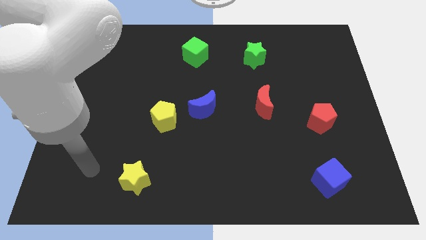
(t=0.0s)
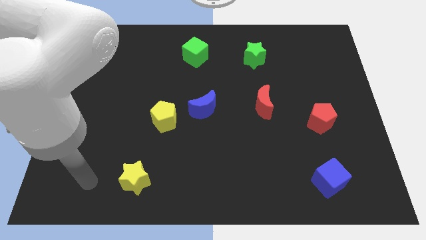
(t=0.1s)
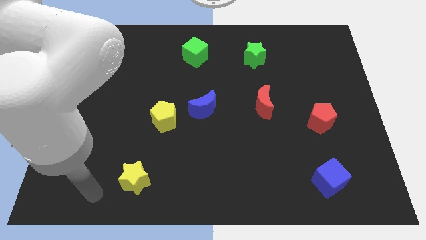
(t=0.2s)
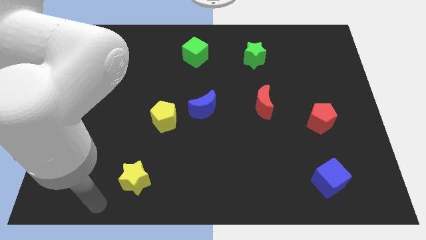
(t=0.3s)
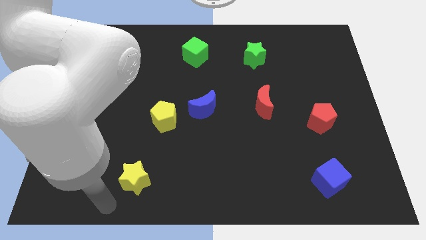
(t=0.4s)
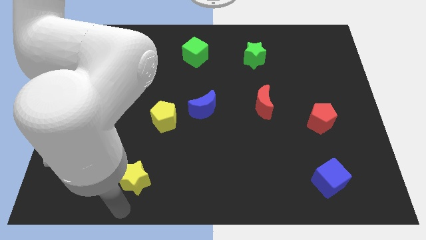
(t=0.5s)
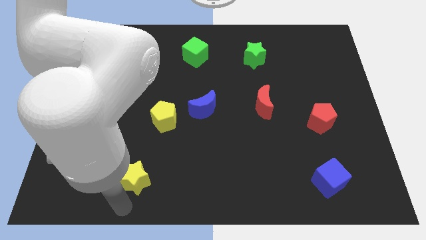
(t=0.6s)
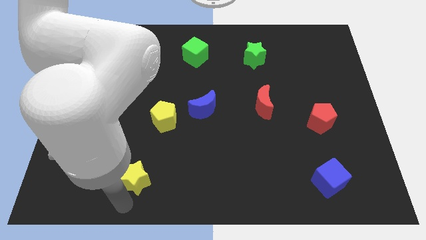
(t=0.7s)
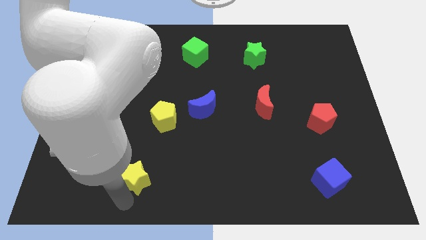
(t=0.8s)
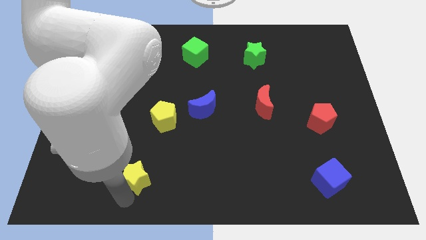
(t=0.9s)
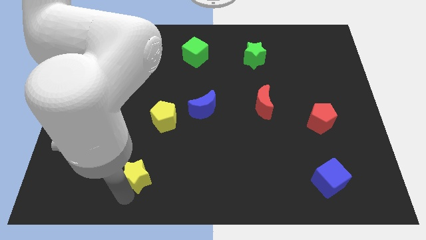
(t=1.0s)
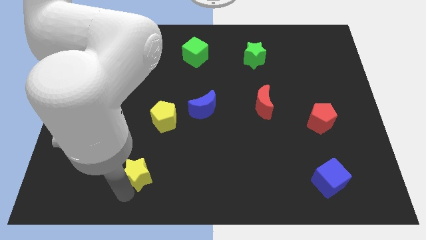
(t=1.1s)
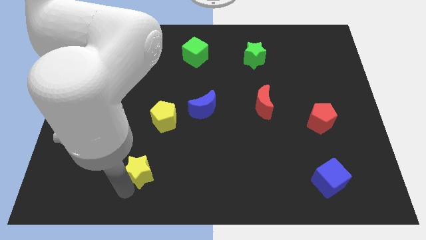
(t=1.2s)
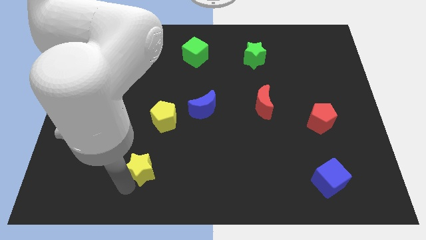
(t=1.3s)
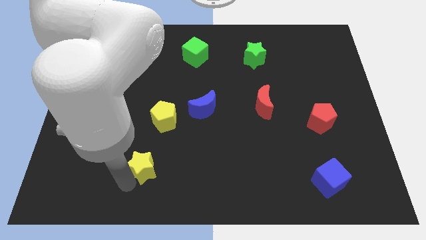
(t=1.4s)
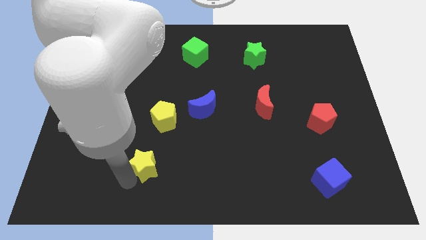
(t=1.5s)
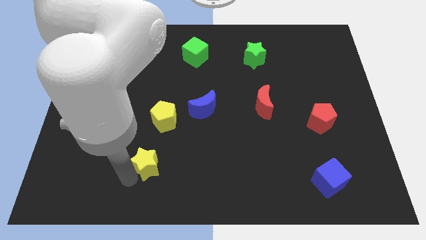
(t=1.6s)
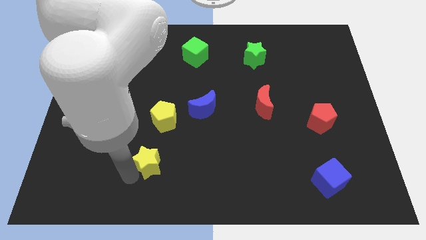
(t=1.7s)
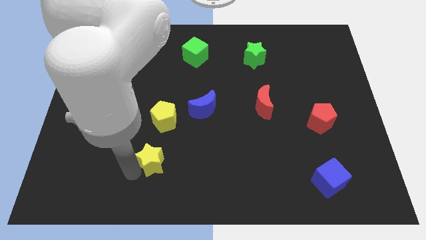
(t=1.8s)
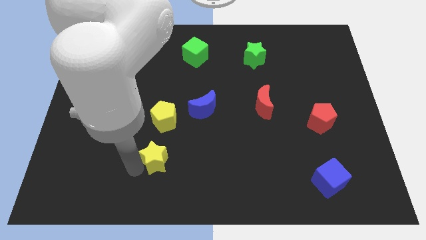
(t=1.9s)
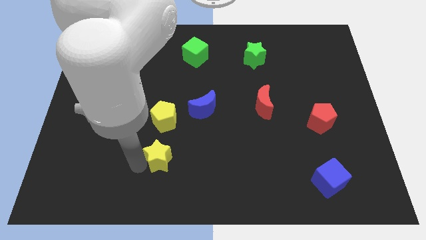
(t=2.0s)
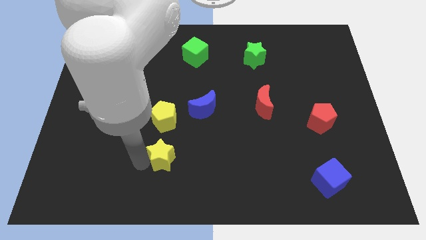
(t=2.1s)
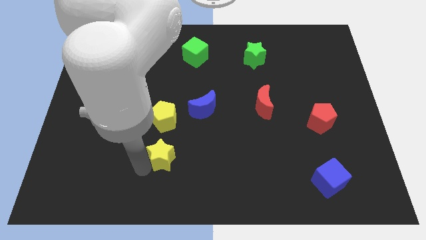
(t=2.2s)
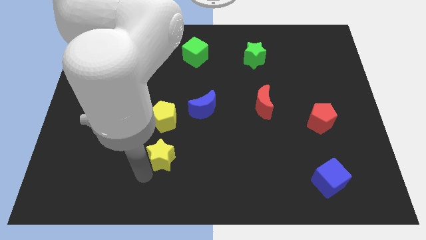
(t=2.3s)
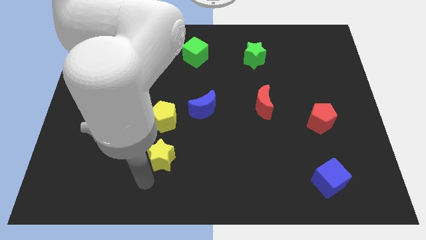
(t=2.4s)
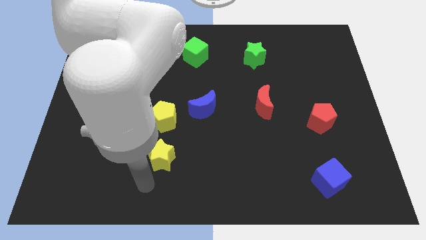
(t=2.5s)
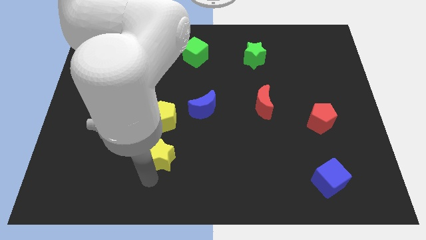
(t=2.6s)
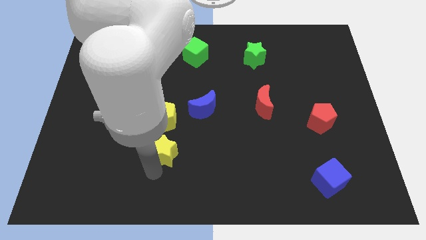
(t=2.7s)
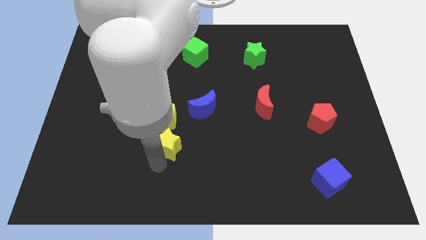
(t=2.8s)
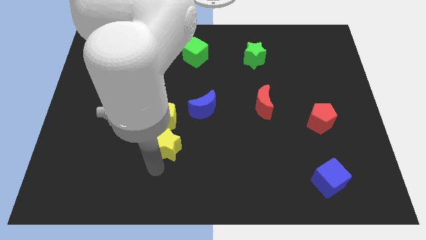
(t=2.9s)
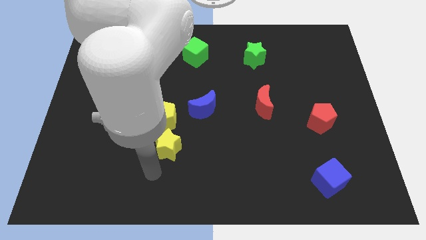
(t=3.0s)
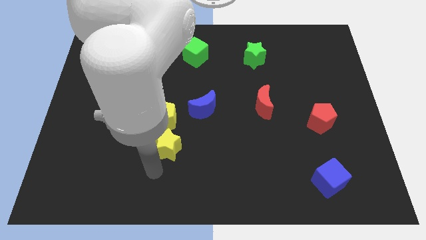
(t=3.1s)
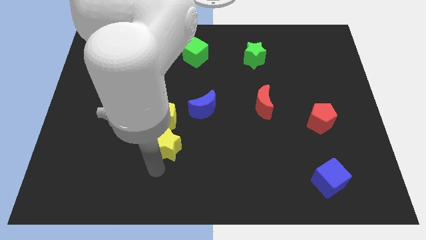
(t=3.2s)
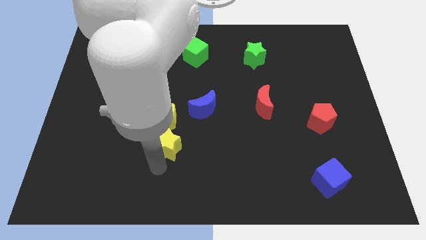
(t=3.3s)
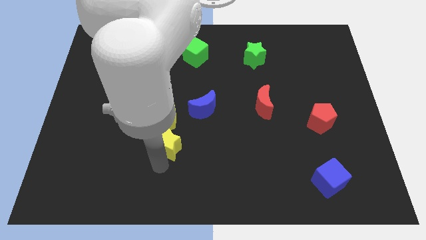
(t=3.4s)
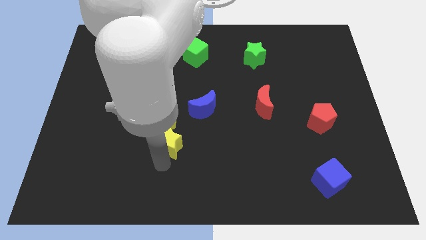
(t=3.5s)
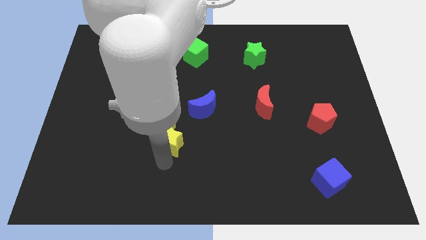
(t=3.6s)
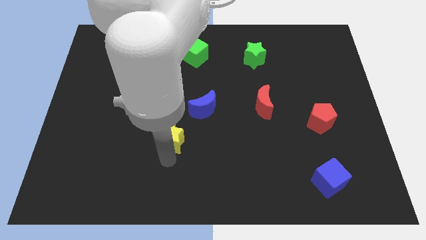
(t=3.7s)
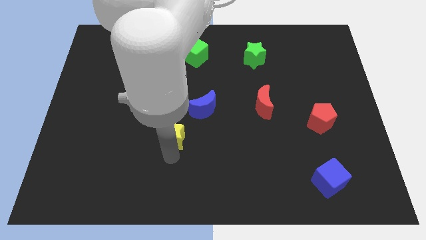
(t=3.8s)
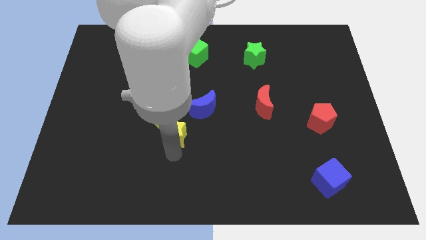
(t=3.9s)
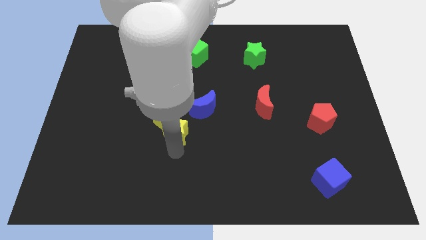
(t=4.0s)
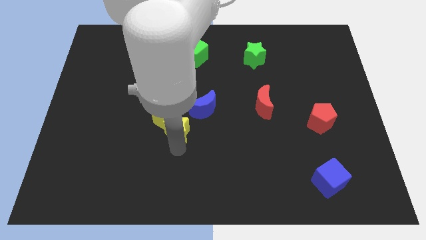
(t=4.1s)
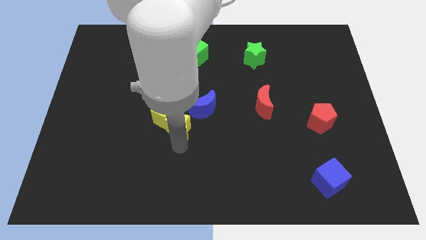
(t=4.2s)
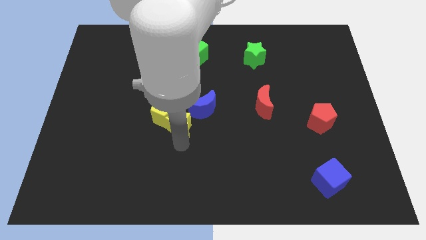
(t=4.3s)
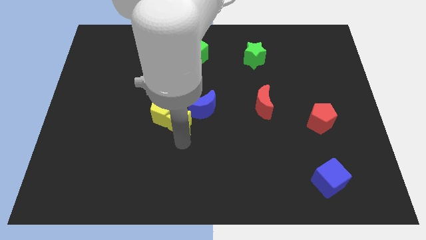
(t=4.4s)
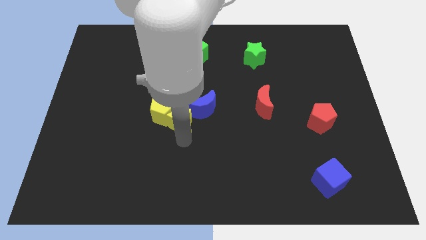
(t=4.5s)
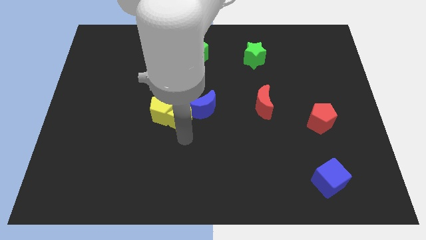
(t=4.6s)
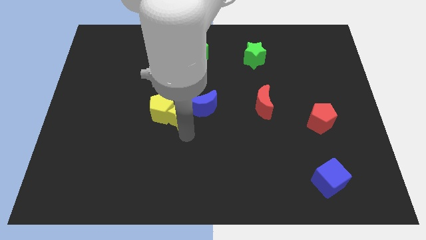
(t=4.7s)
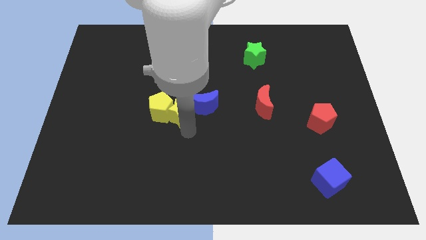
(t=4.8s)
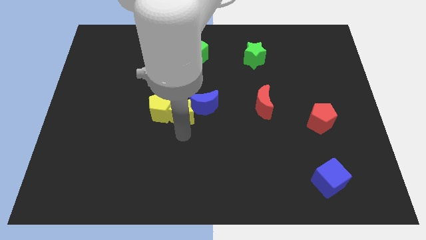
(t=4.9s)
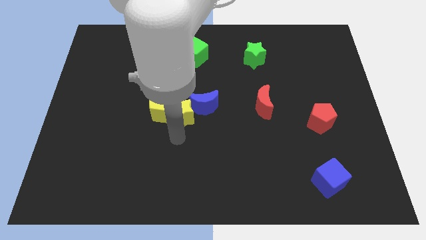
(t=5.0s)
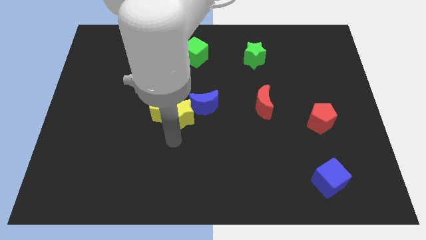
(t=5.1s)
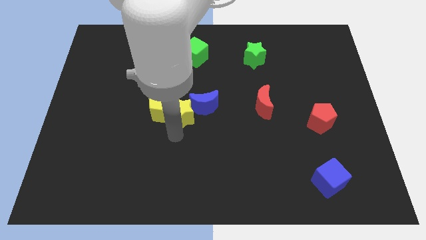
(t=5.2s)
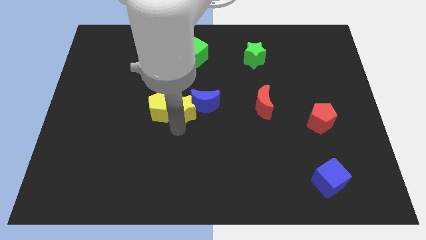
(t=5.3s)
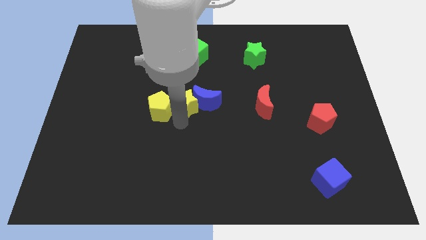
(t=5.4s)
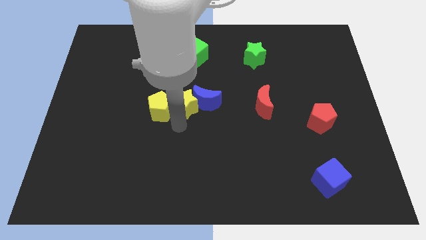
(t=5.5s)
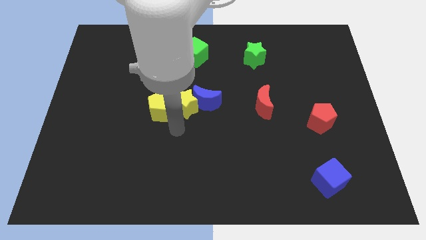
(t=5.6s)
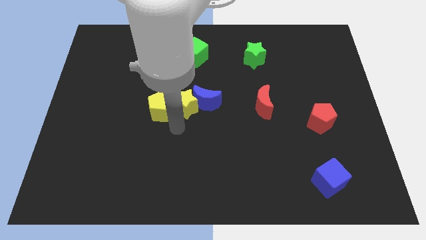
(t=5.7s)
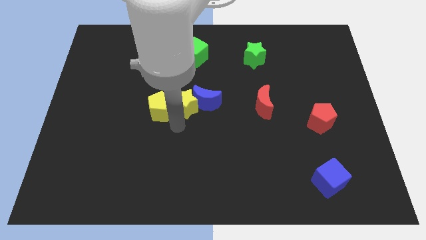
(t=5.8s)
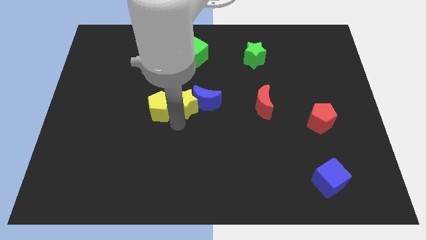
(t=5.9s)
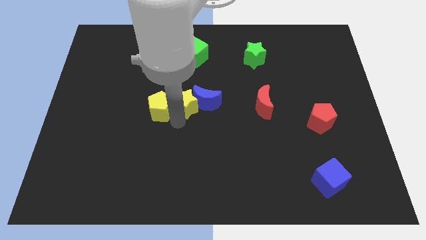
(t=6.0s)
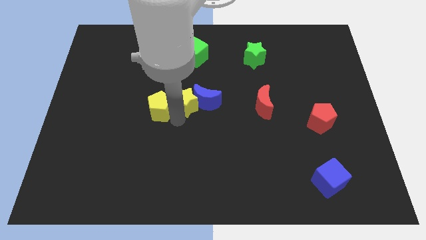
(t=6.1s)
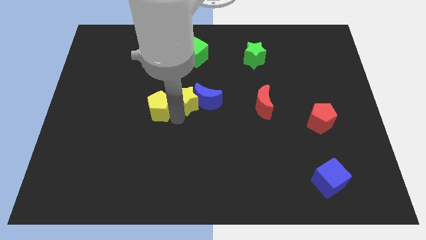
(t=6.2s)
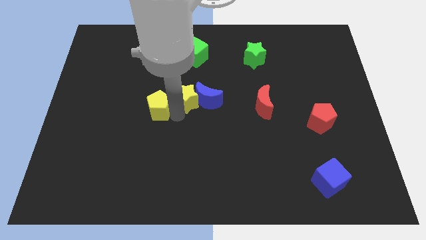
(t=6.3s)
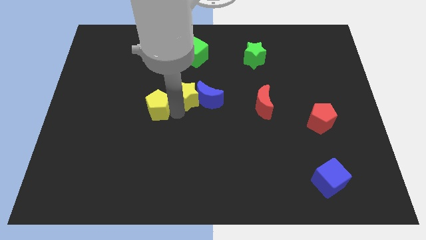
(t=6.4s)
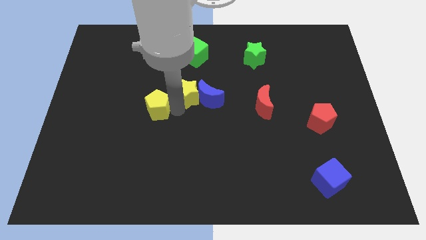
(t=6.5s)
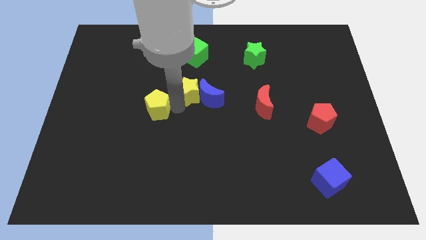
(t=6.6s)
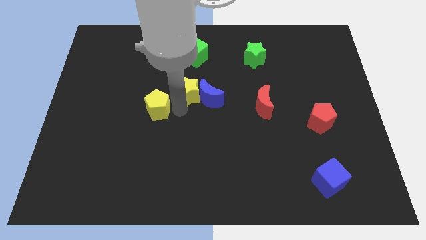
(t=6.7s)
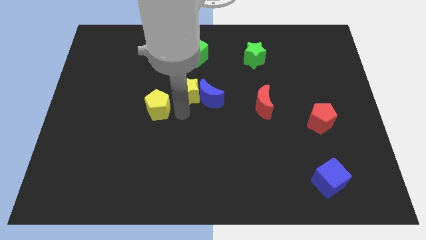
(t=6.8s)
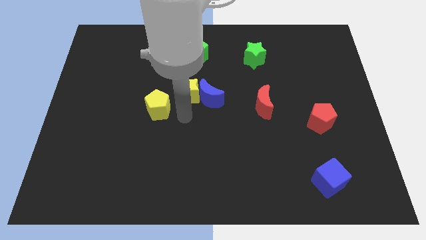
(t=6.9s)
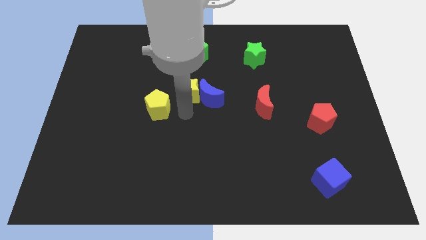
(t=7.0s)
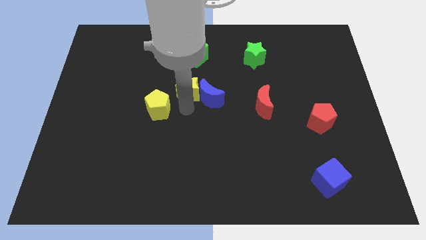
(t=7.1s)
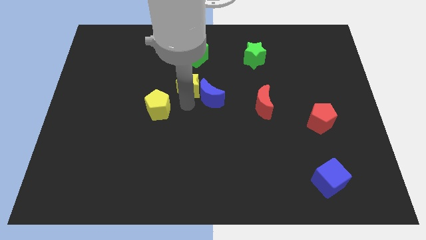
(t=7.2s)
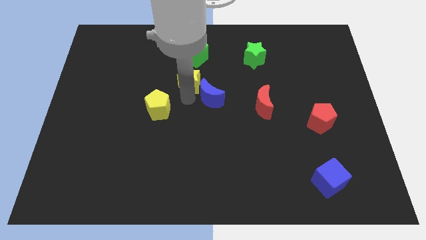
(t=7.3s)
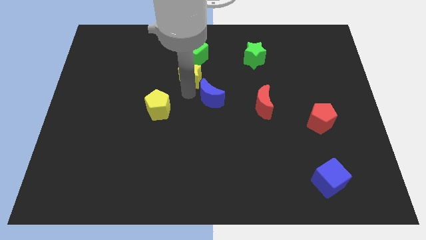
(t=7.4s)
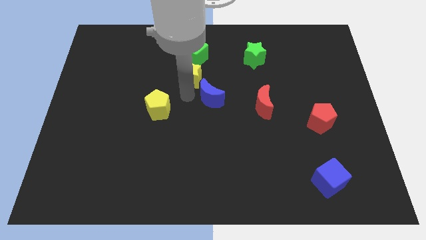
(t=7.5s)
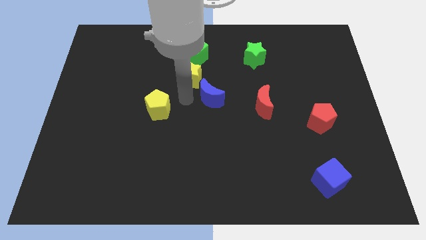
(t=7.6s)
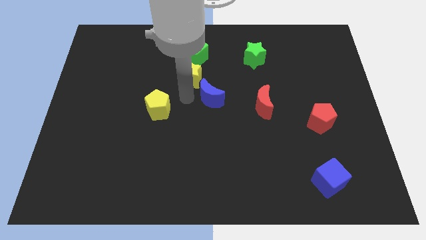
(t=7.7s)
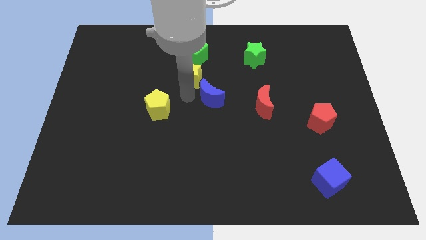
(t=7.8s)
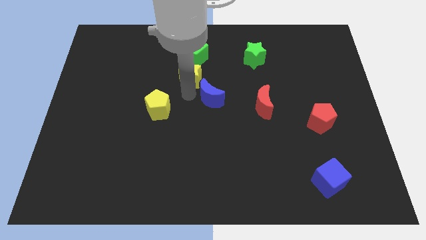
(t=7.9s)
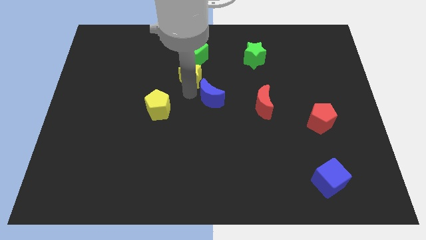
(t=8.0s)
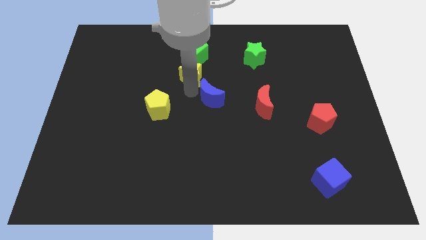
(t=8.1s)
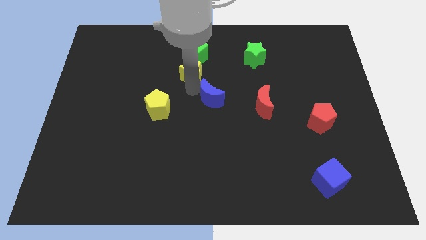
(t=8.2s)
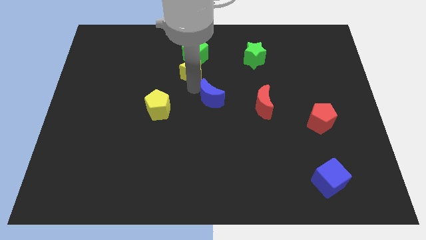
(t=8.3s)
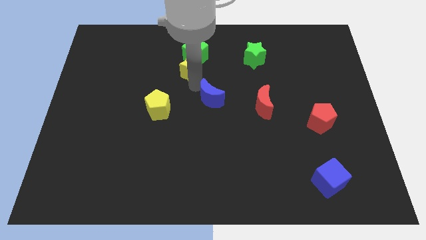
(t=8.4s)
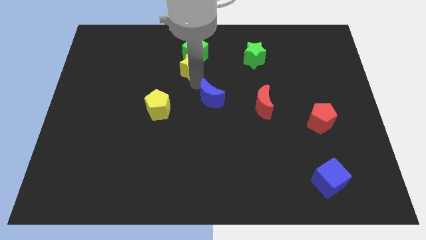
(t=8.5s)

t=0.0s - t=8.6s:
slide the yellow star towards the green cube
